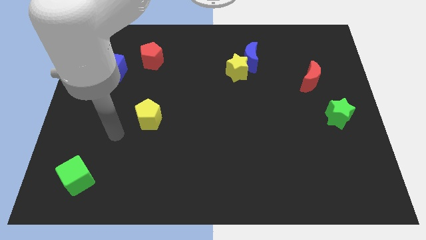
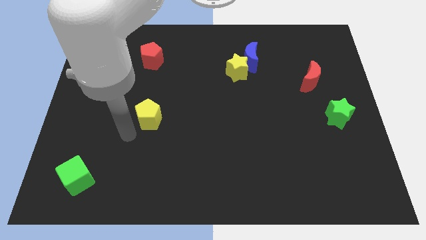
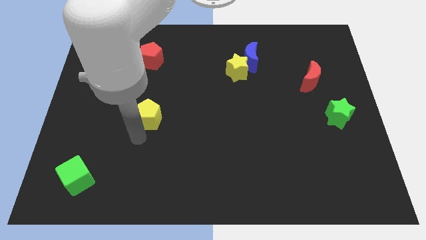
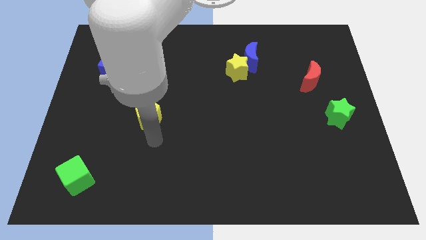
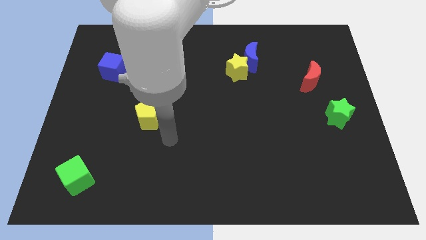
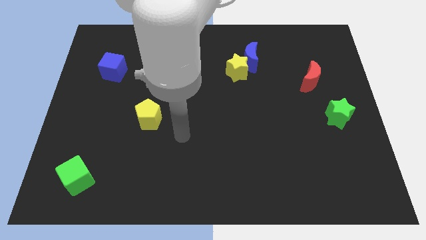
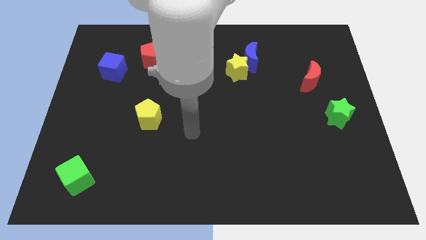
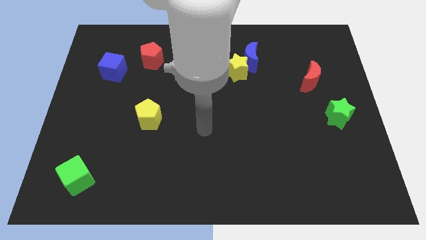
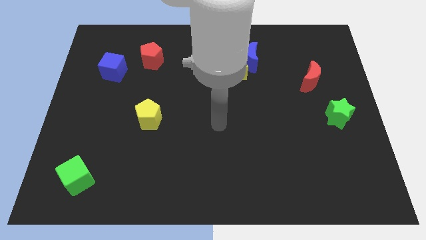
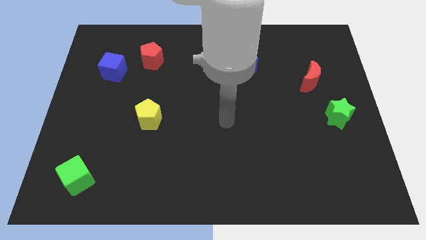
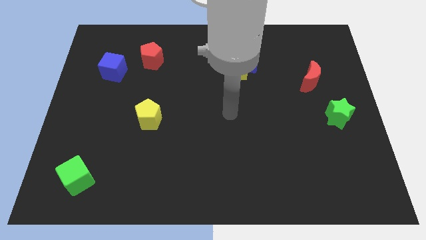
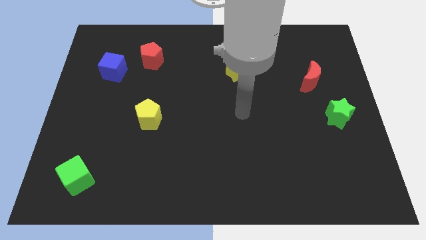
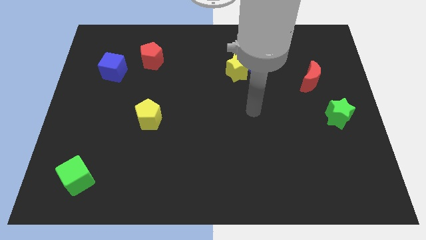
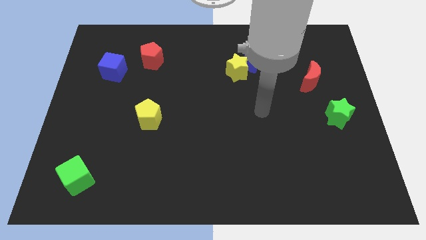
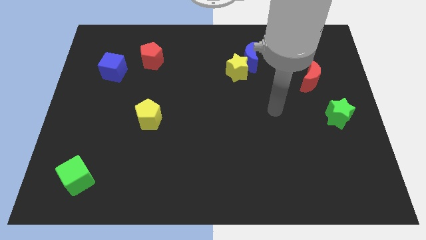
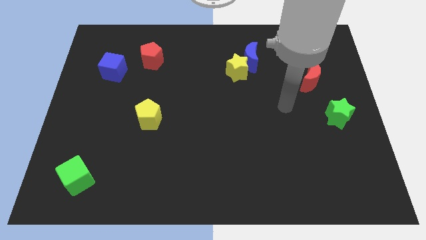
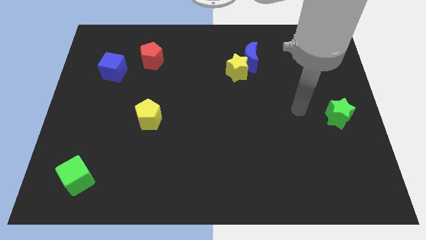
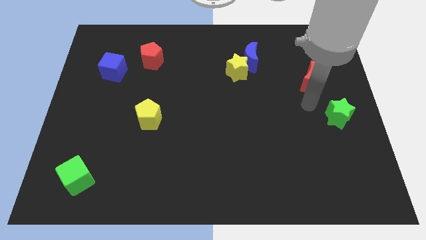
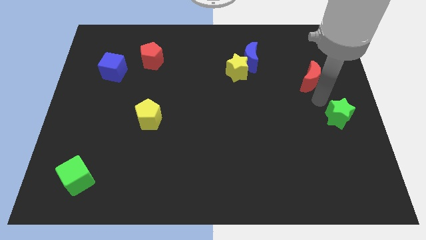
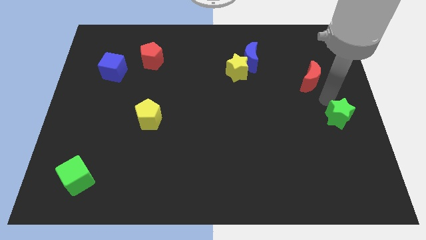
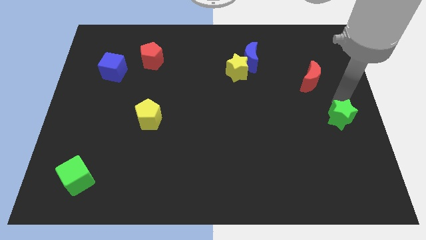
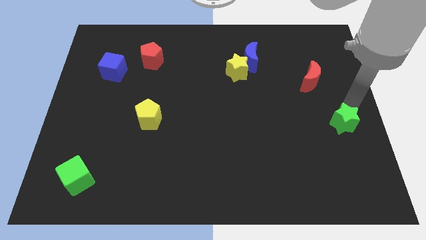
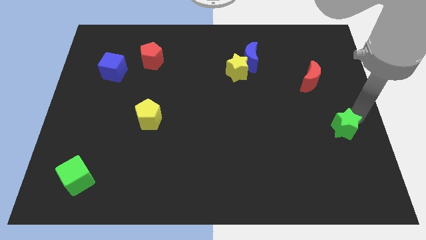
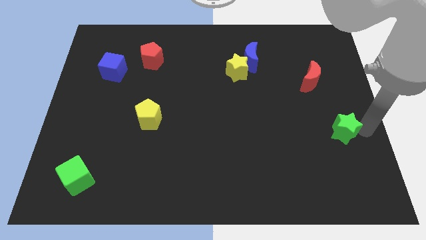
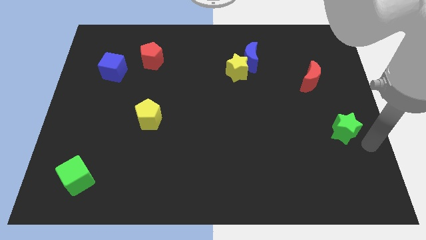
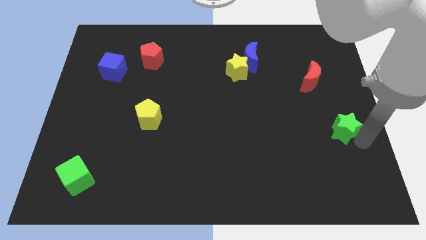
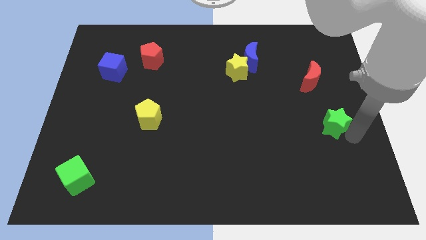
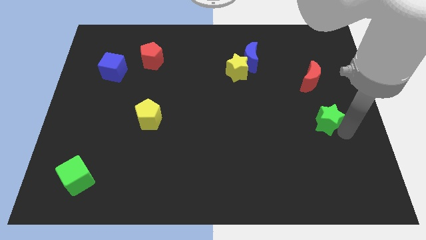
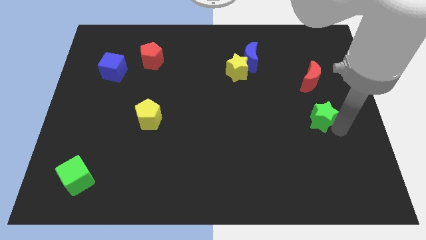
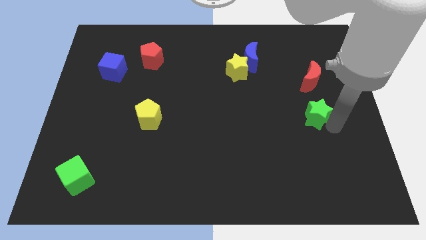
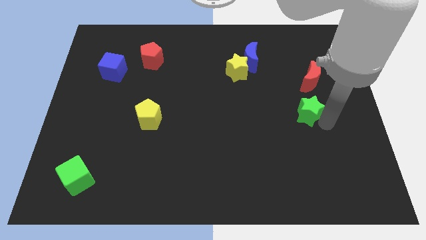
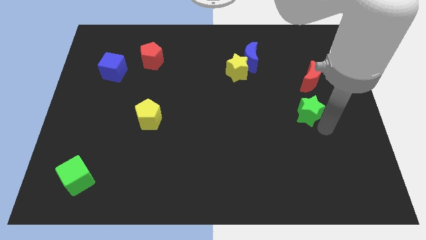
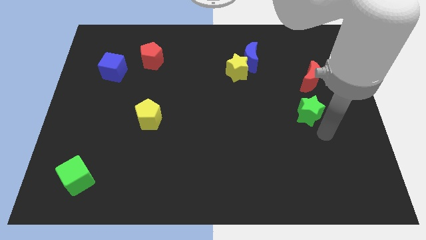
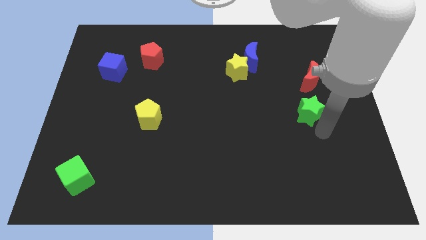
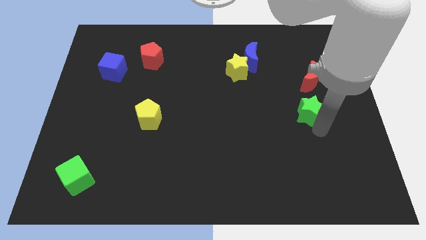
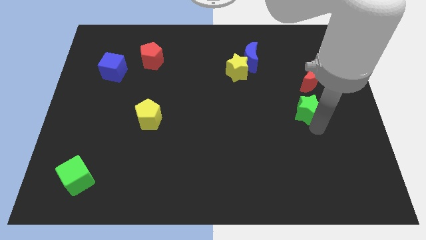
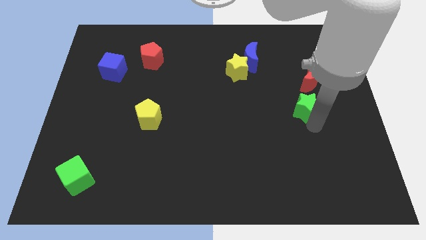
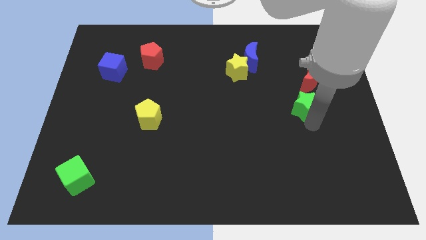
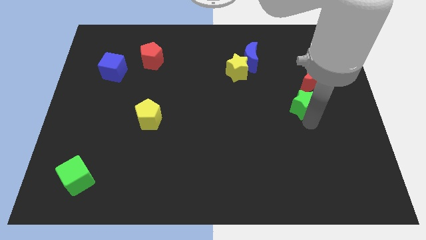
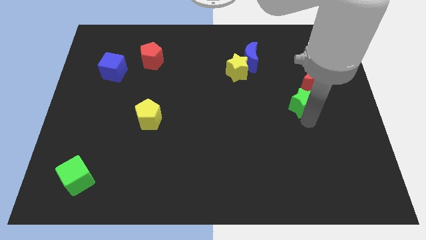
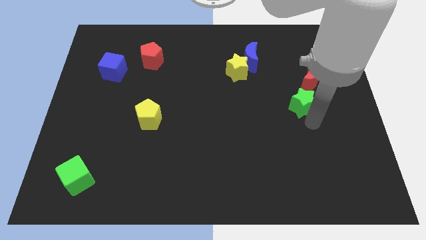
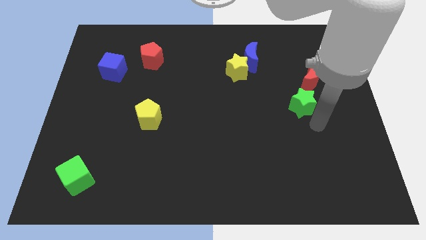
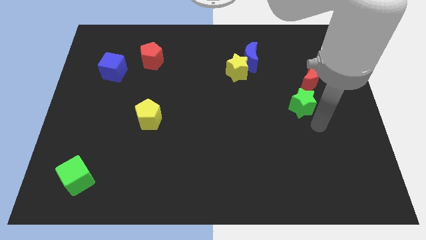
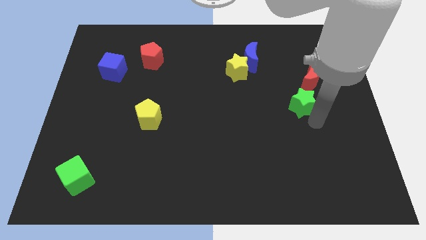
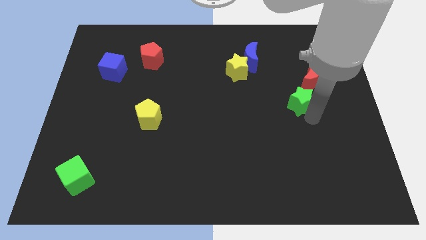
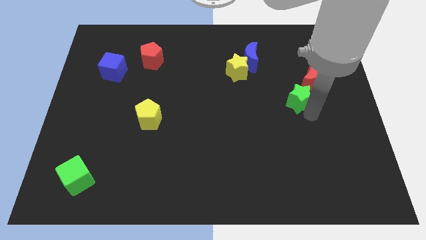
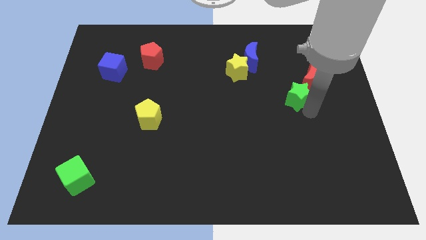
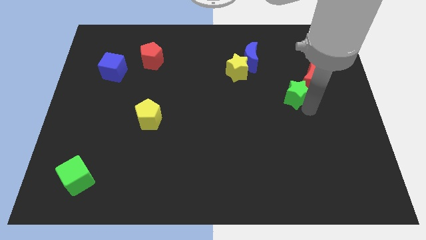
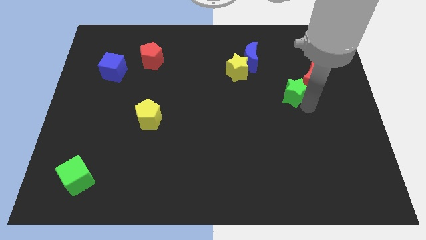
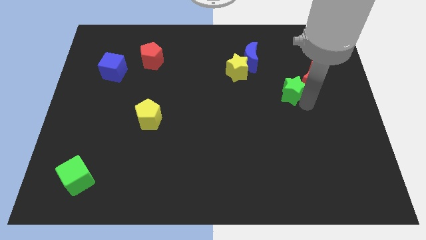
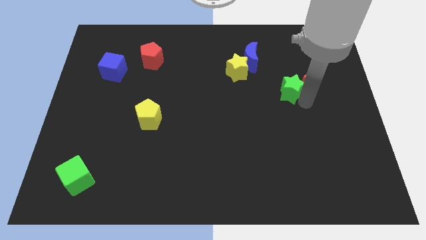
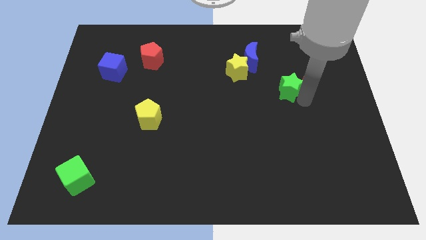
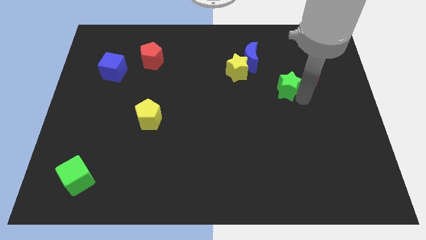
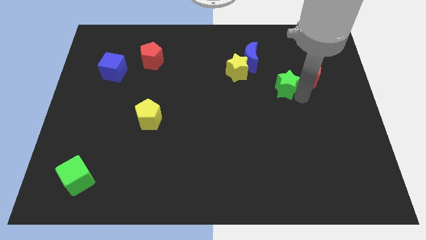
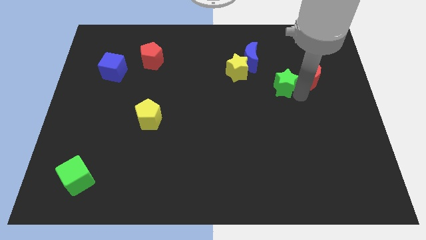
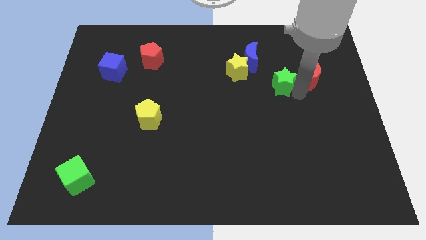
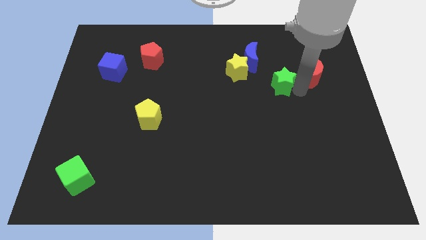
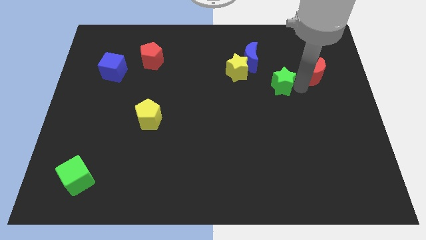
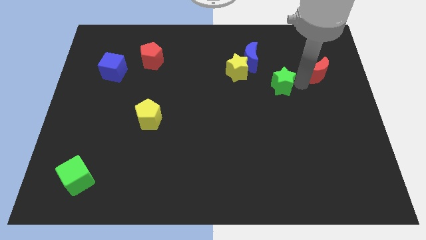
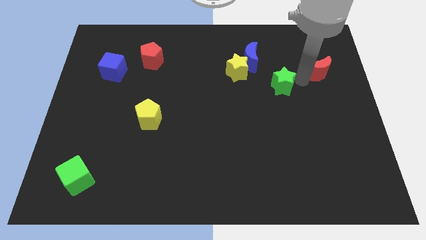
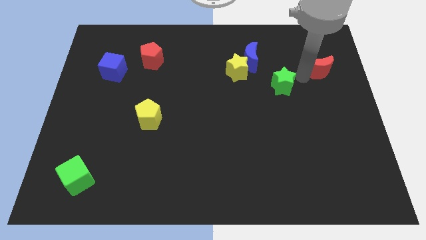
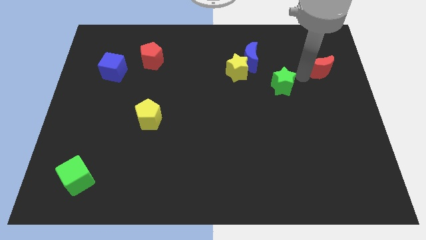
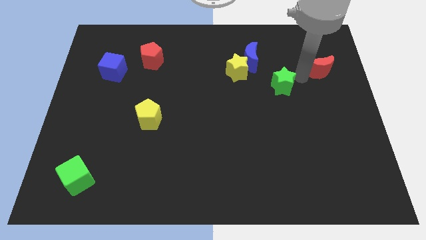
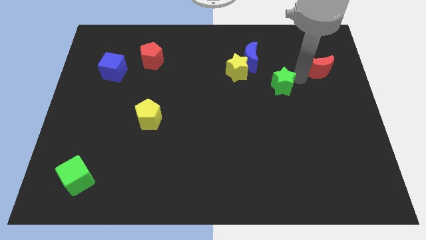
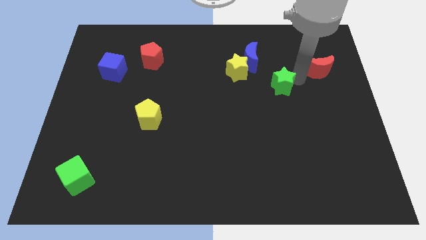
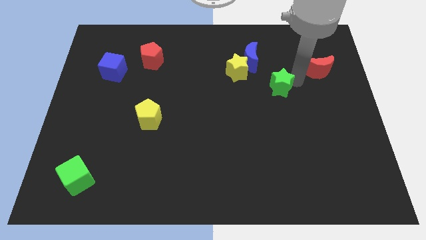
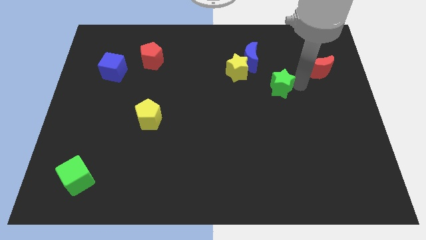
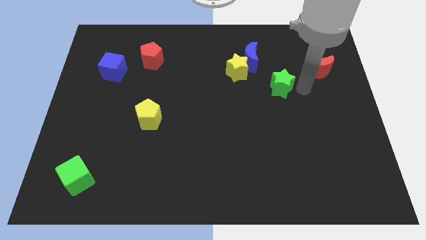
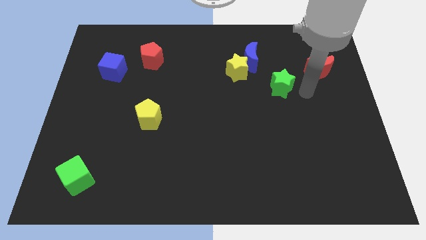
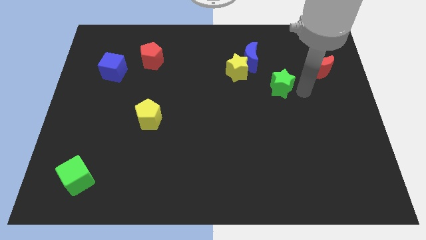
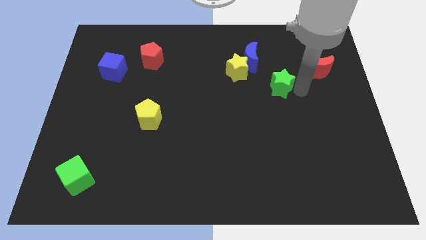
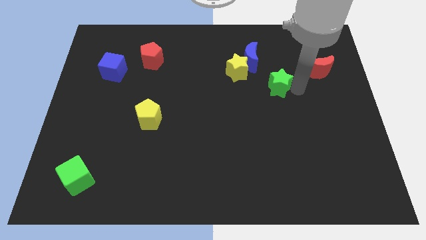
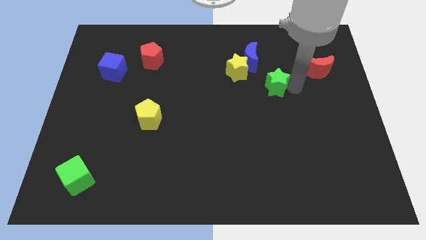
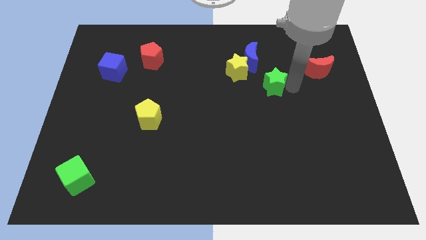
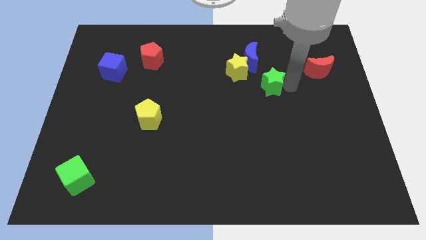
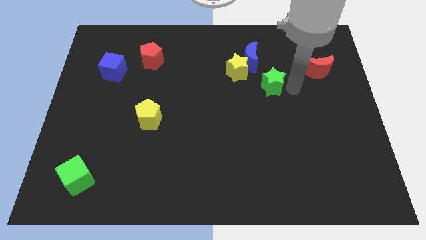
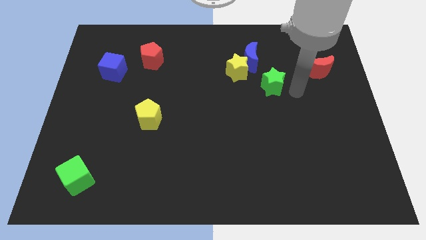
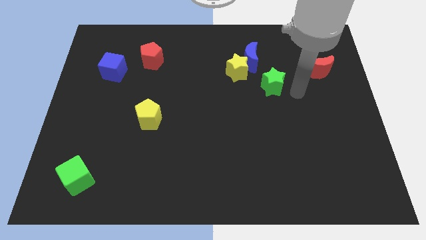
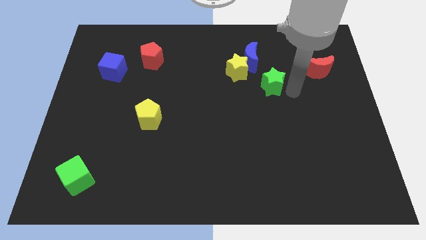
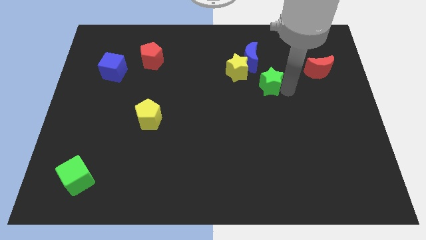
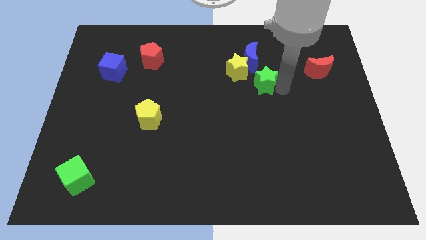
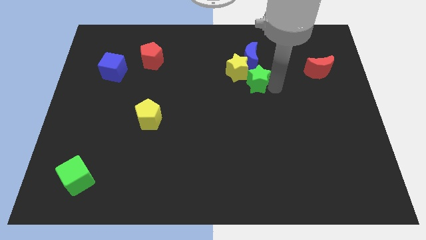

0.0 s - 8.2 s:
put the green star next to the yellow star
